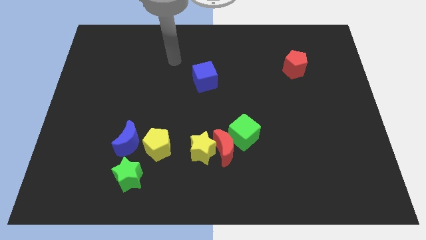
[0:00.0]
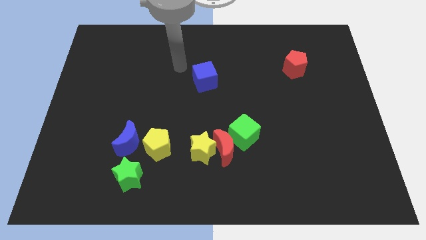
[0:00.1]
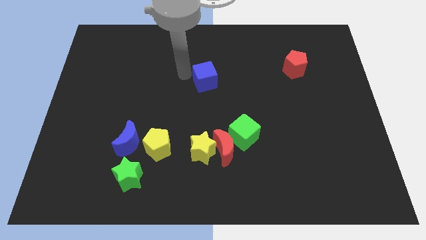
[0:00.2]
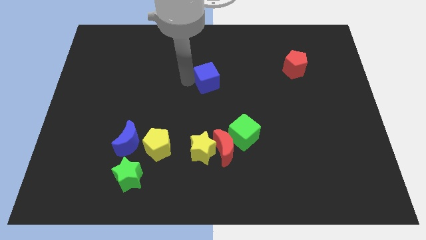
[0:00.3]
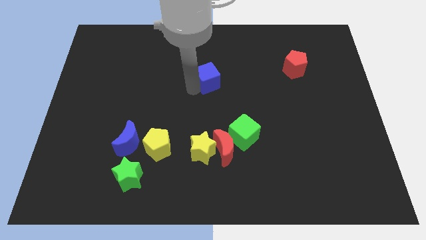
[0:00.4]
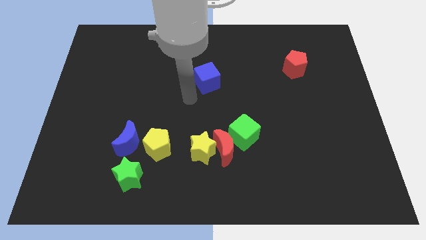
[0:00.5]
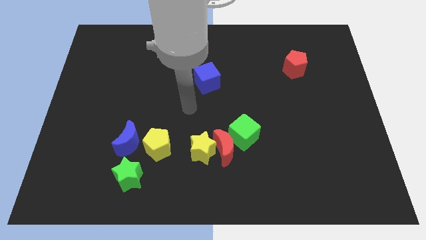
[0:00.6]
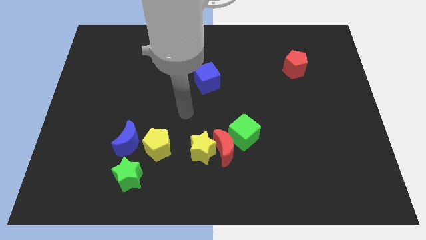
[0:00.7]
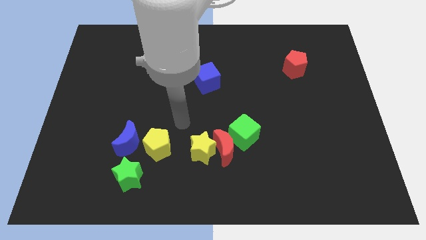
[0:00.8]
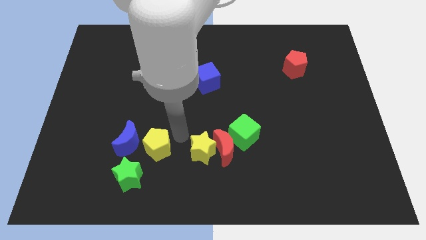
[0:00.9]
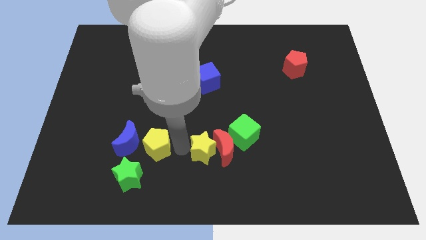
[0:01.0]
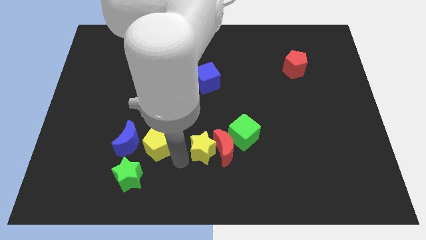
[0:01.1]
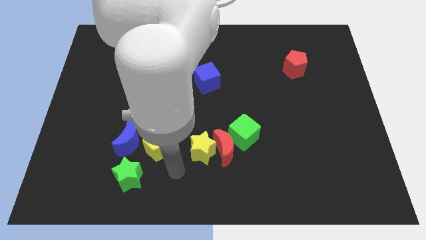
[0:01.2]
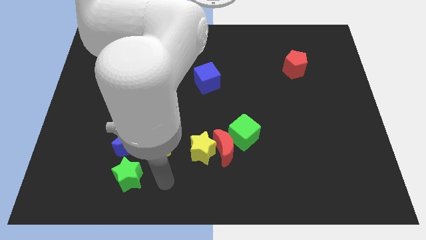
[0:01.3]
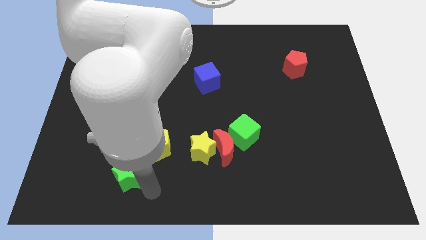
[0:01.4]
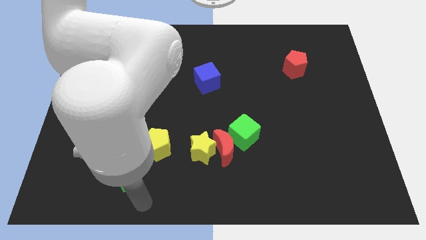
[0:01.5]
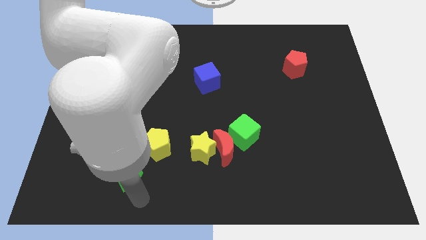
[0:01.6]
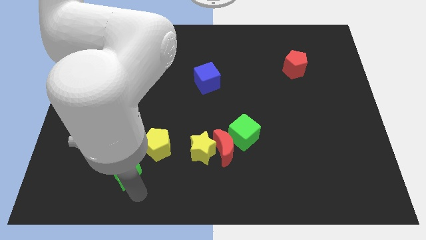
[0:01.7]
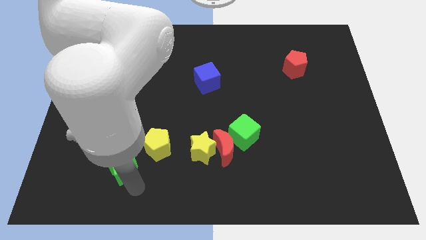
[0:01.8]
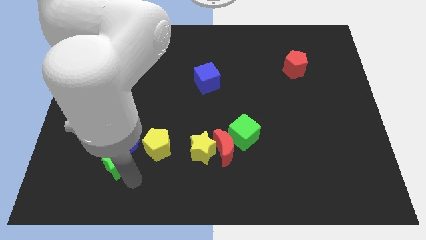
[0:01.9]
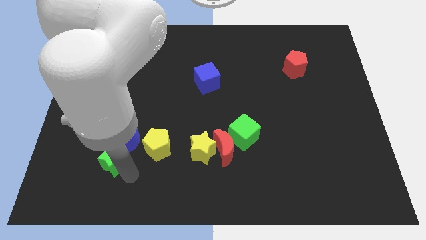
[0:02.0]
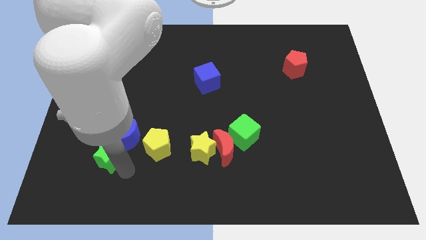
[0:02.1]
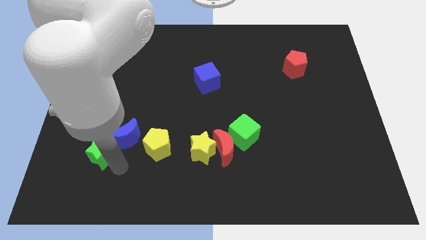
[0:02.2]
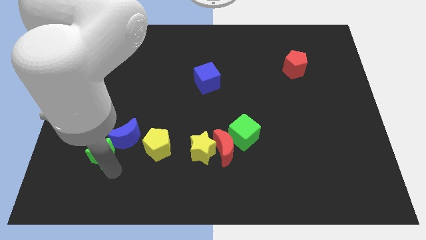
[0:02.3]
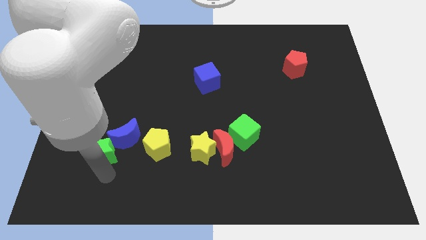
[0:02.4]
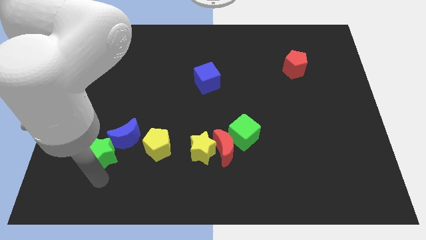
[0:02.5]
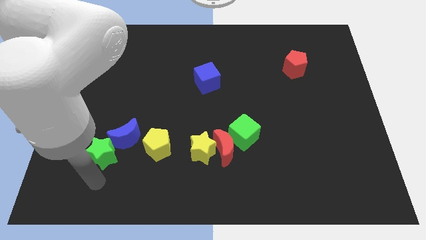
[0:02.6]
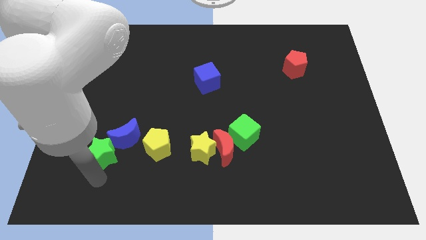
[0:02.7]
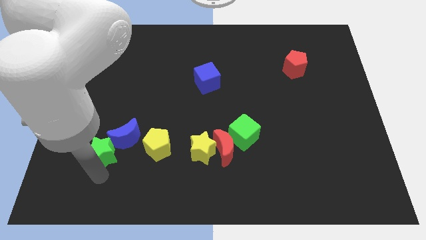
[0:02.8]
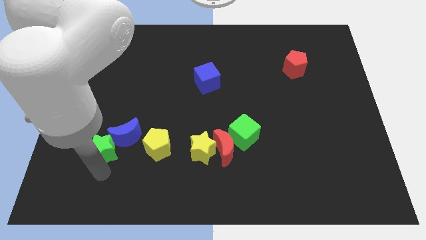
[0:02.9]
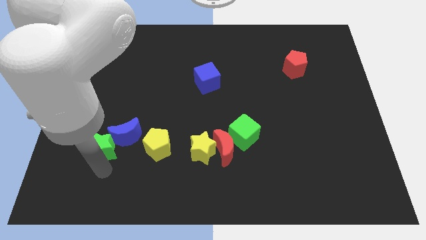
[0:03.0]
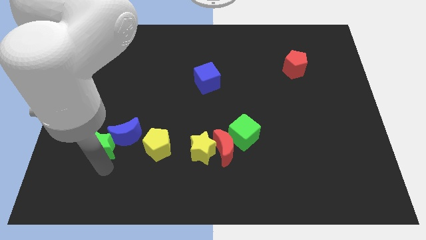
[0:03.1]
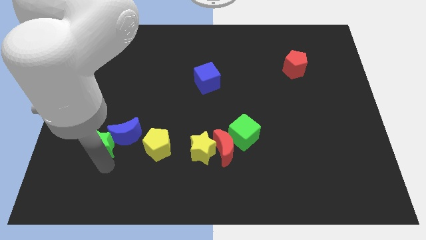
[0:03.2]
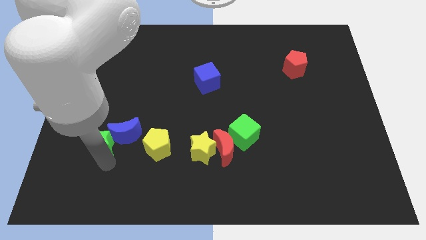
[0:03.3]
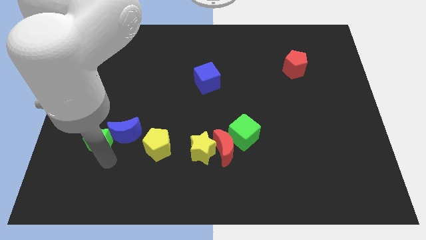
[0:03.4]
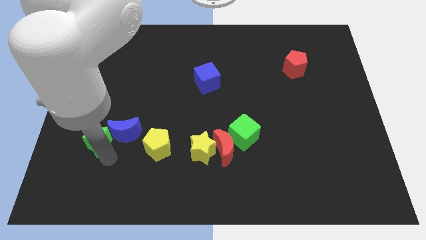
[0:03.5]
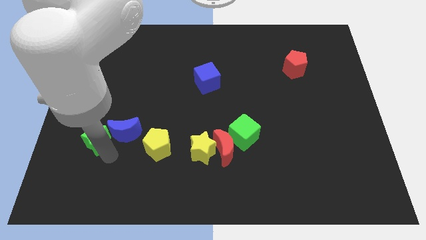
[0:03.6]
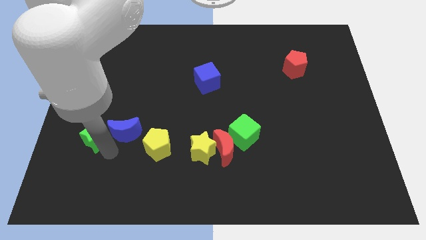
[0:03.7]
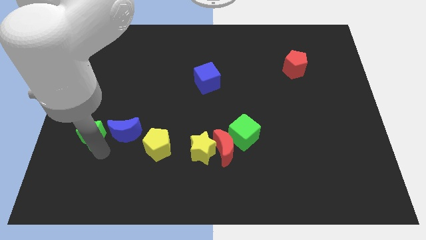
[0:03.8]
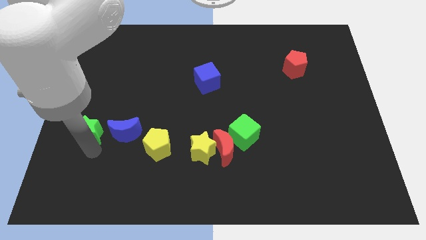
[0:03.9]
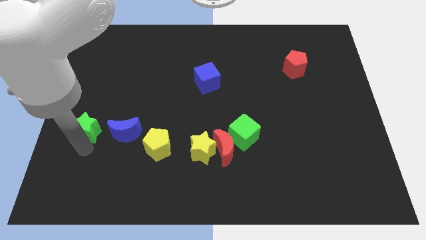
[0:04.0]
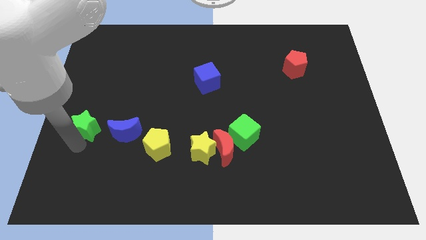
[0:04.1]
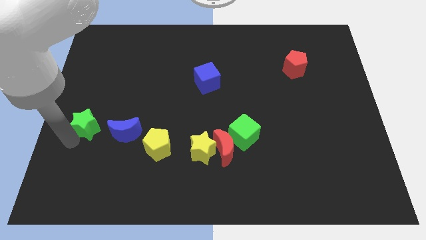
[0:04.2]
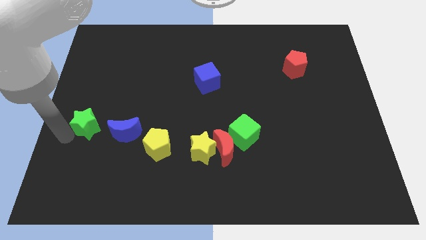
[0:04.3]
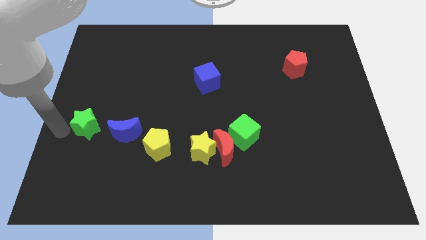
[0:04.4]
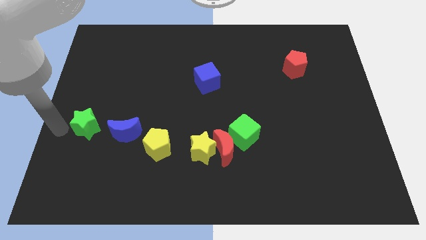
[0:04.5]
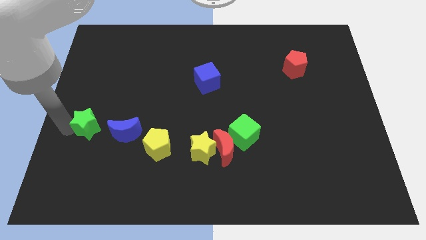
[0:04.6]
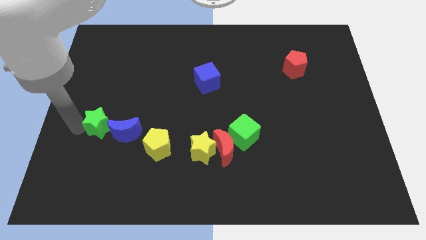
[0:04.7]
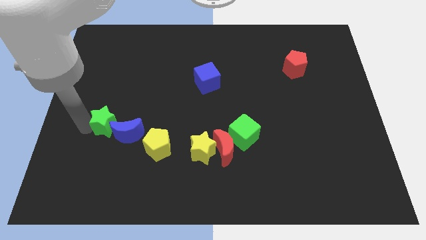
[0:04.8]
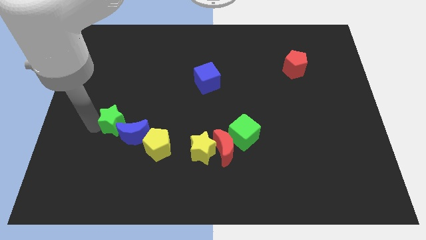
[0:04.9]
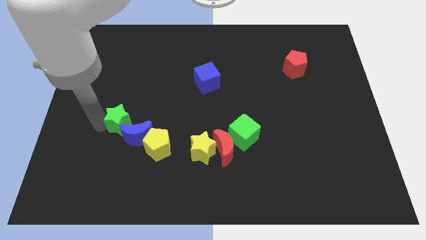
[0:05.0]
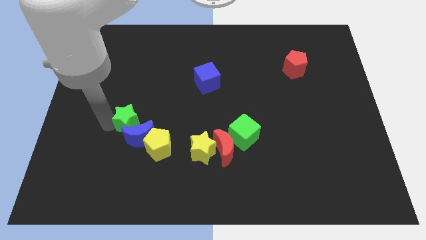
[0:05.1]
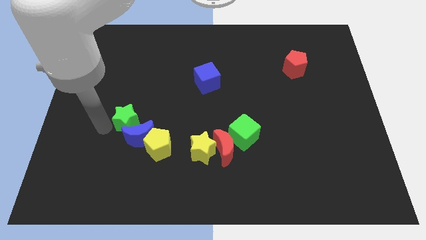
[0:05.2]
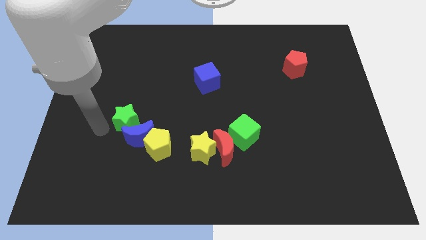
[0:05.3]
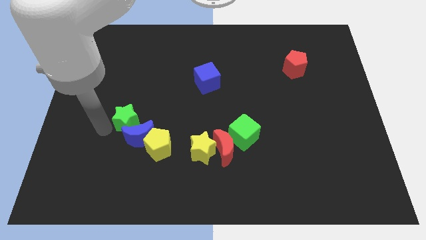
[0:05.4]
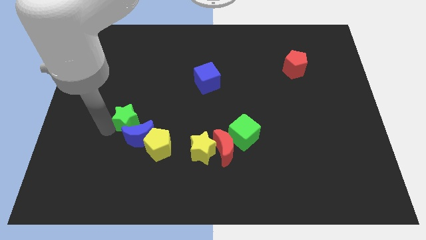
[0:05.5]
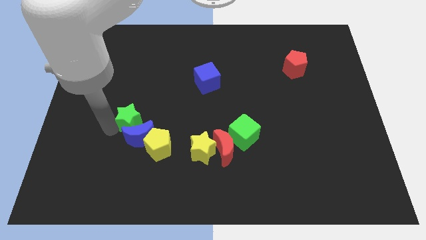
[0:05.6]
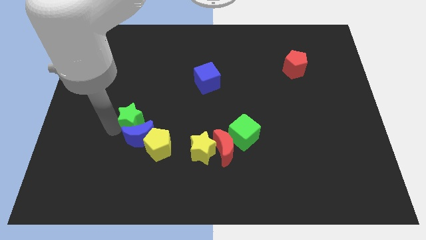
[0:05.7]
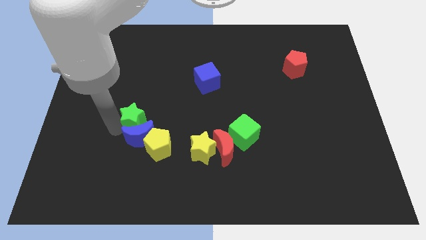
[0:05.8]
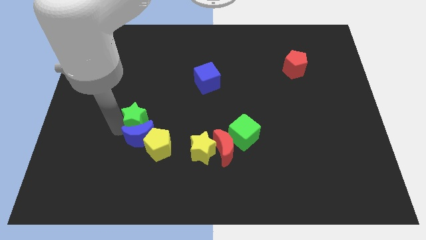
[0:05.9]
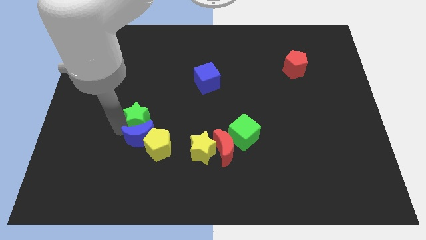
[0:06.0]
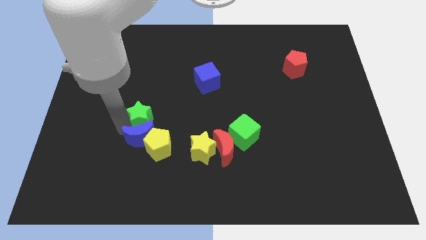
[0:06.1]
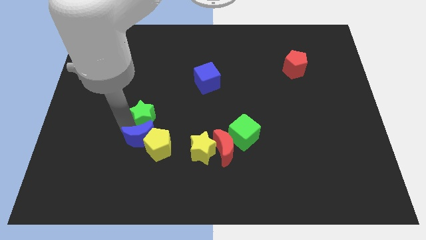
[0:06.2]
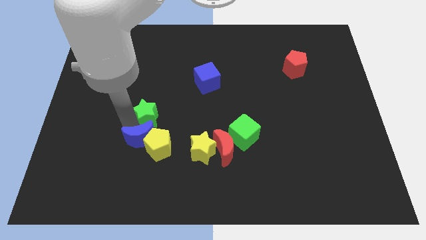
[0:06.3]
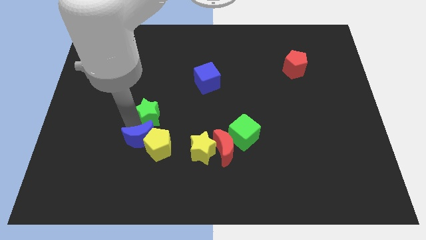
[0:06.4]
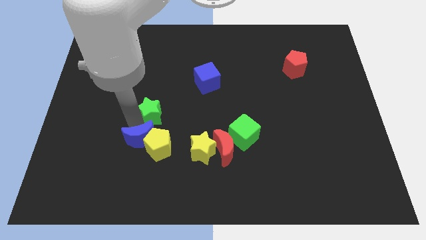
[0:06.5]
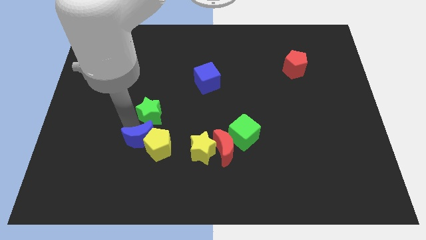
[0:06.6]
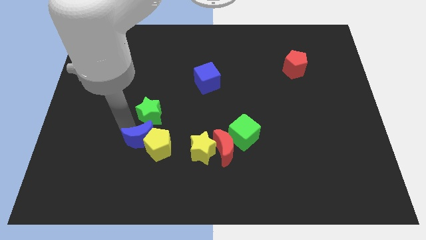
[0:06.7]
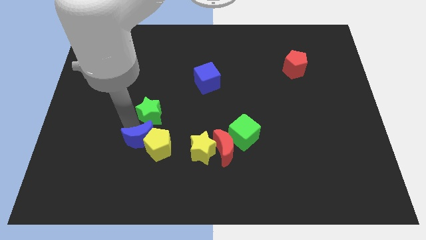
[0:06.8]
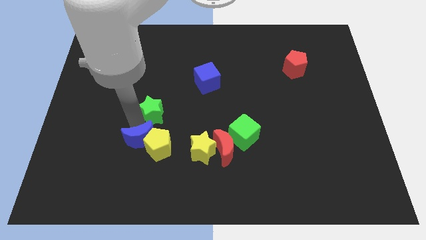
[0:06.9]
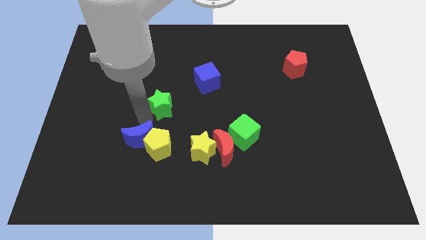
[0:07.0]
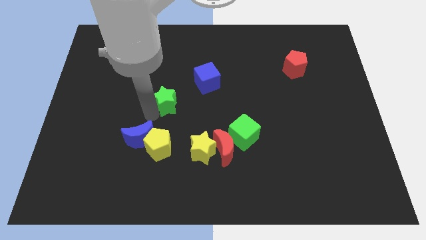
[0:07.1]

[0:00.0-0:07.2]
put the green star to the bottom left side of the blue cube
